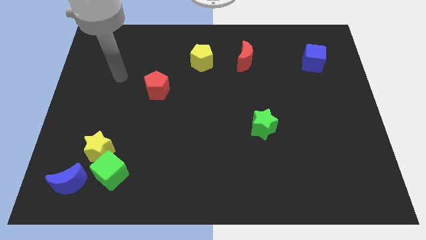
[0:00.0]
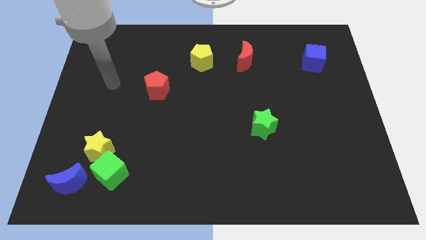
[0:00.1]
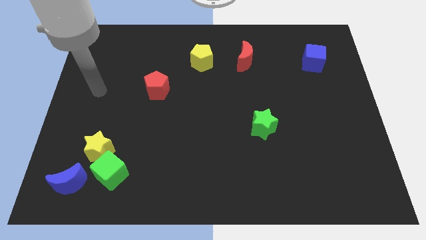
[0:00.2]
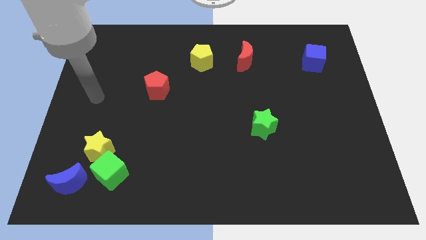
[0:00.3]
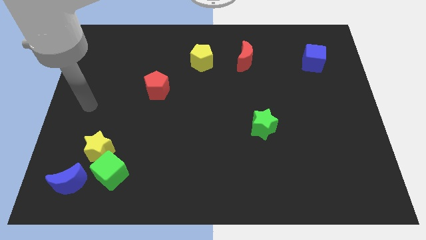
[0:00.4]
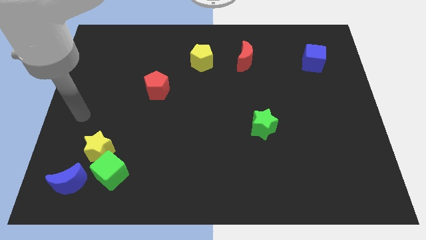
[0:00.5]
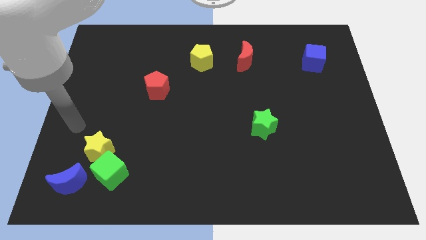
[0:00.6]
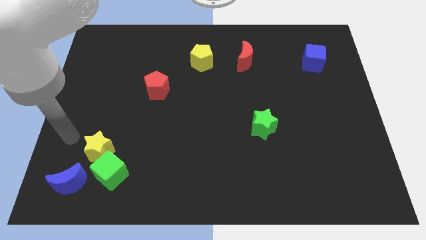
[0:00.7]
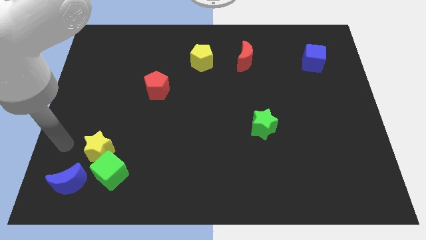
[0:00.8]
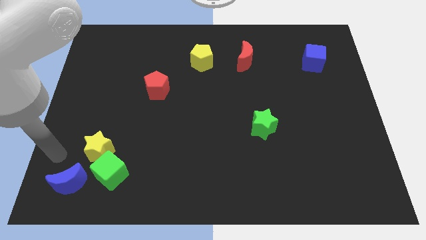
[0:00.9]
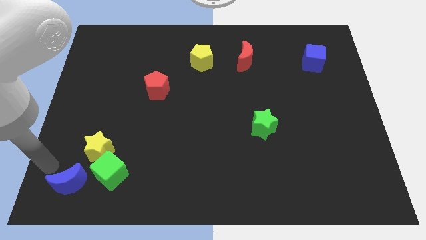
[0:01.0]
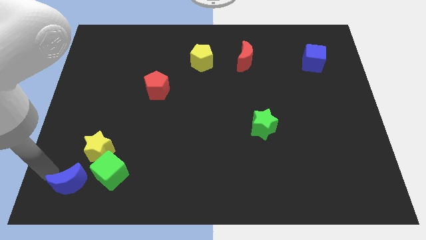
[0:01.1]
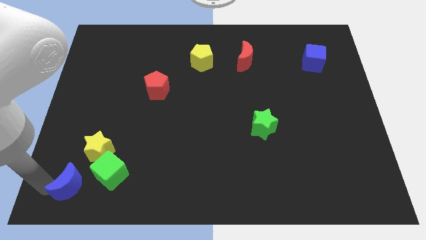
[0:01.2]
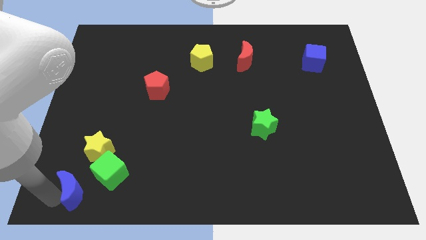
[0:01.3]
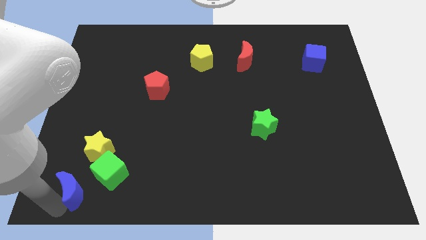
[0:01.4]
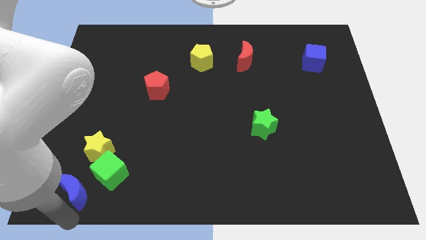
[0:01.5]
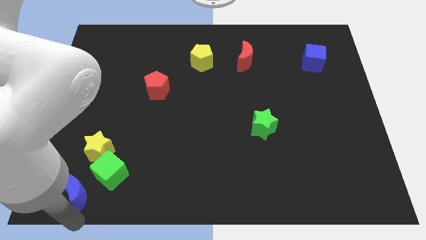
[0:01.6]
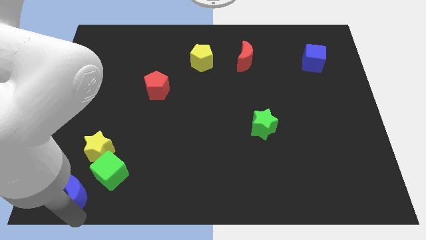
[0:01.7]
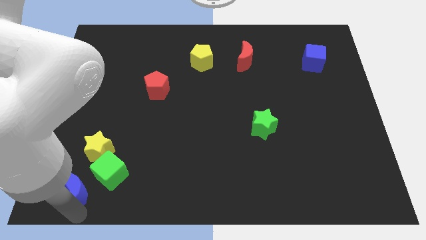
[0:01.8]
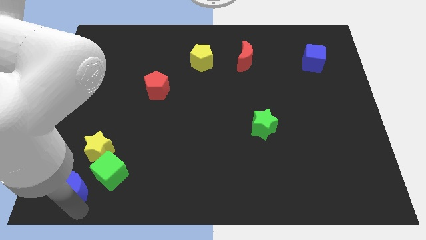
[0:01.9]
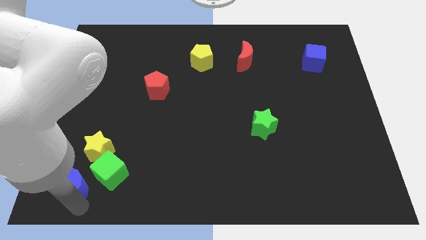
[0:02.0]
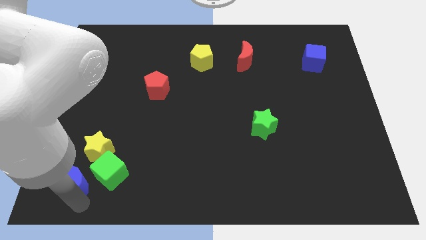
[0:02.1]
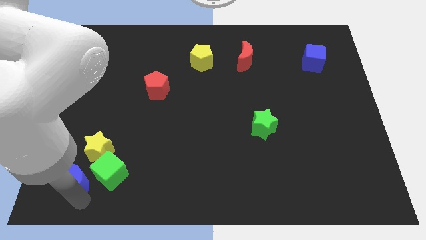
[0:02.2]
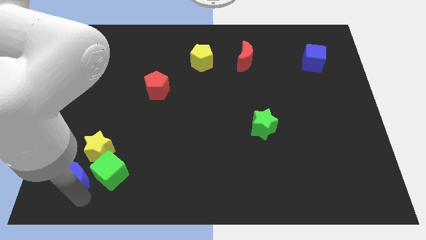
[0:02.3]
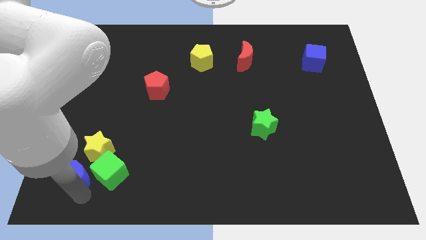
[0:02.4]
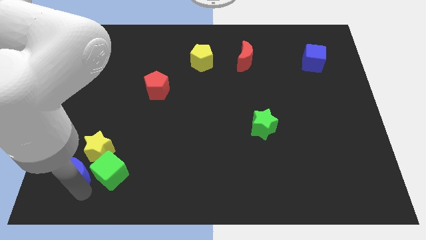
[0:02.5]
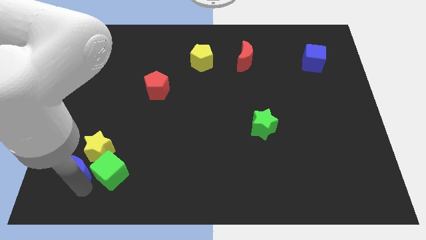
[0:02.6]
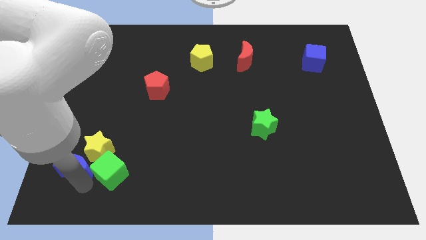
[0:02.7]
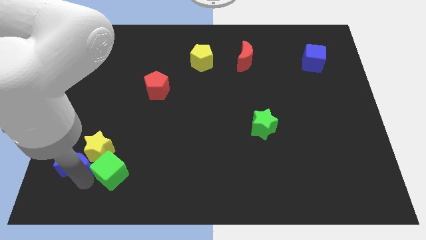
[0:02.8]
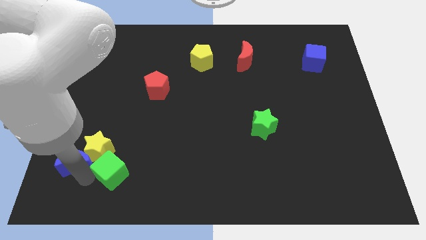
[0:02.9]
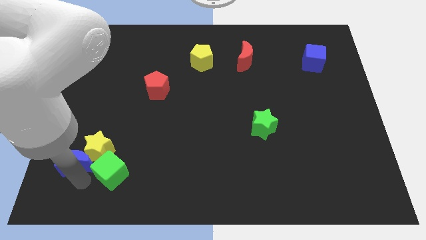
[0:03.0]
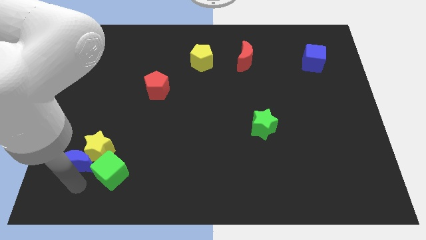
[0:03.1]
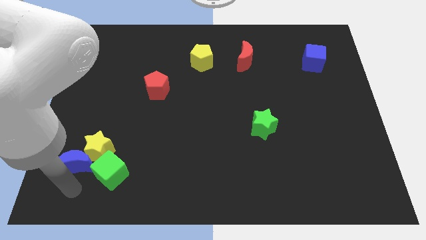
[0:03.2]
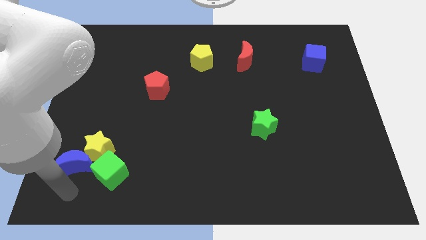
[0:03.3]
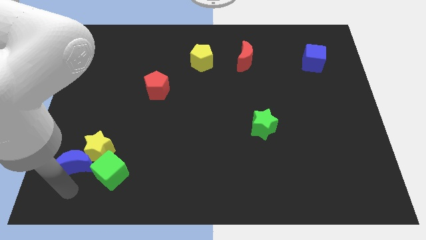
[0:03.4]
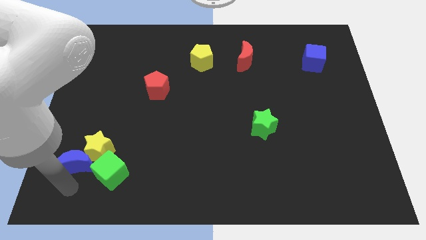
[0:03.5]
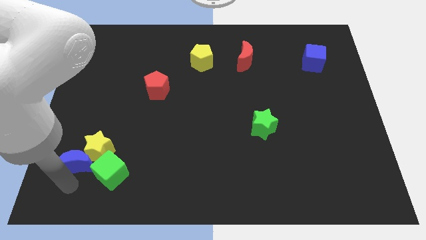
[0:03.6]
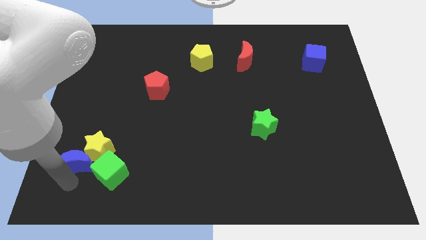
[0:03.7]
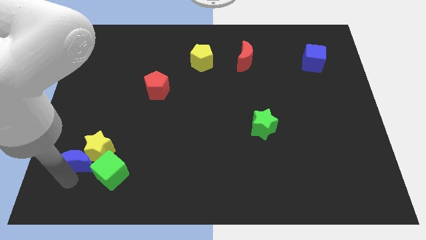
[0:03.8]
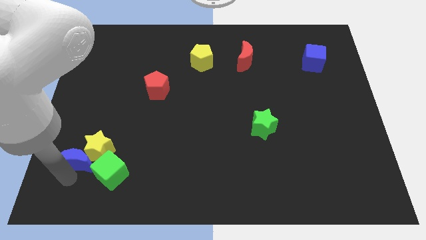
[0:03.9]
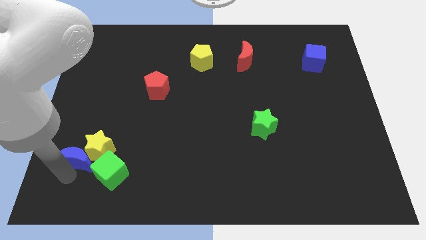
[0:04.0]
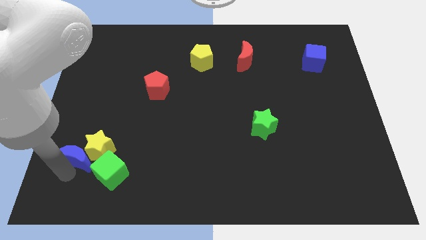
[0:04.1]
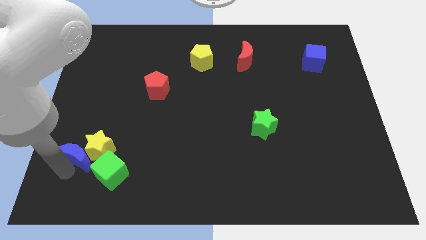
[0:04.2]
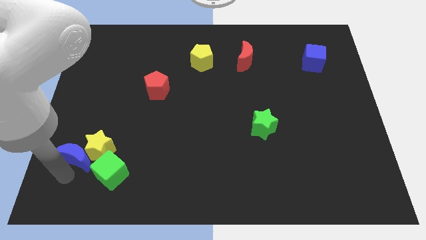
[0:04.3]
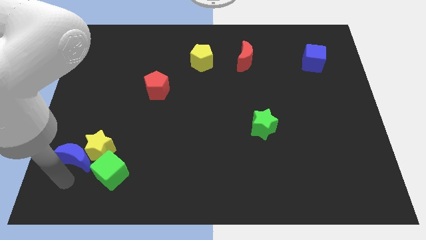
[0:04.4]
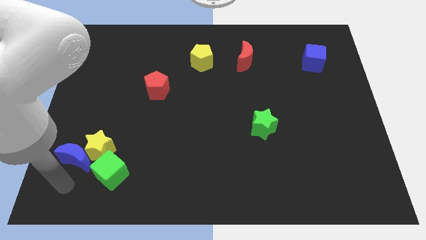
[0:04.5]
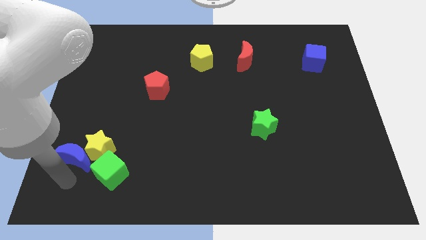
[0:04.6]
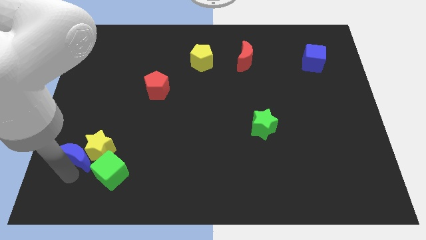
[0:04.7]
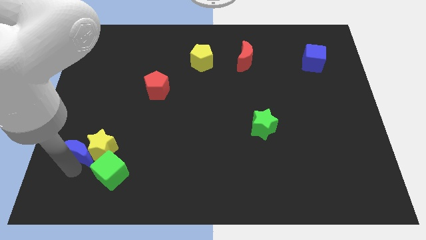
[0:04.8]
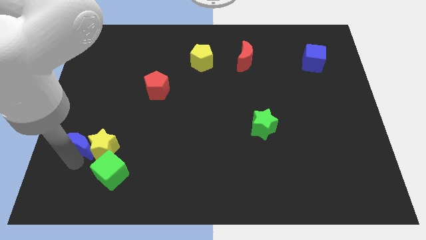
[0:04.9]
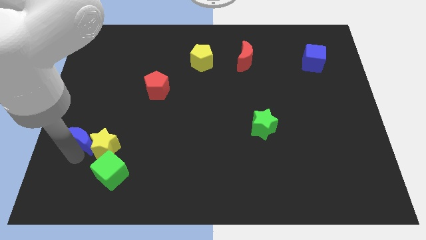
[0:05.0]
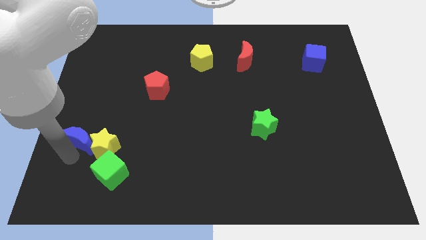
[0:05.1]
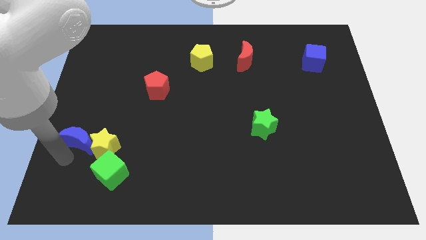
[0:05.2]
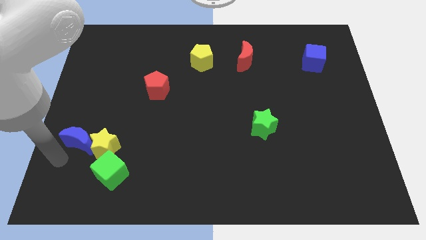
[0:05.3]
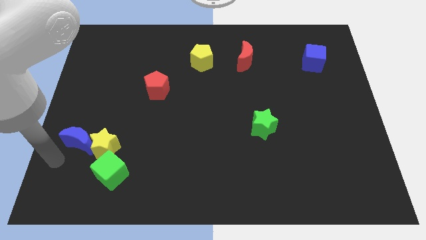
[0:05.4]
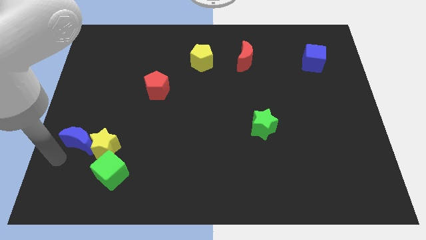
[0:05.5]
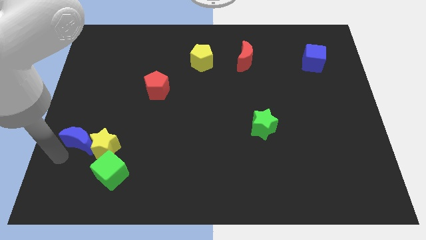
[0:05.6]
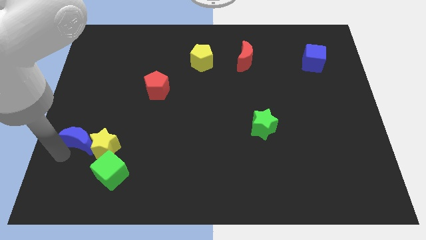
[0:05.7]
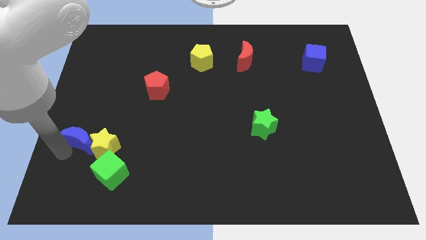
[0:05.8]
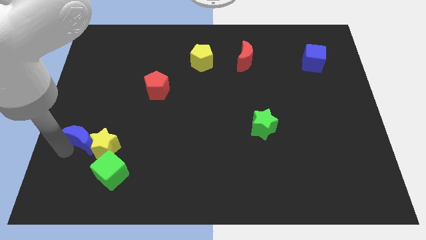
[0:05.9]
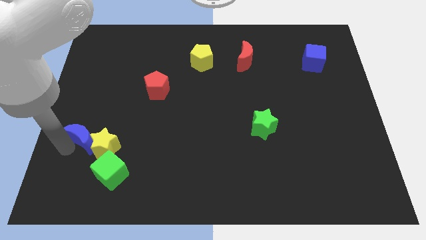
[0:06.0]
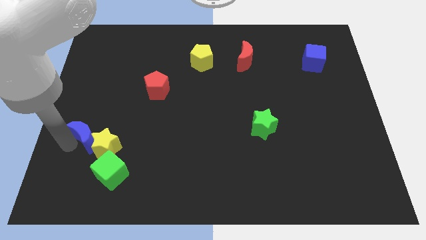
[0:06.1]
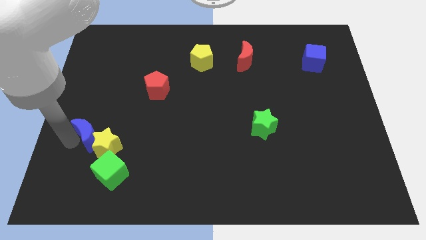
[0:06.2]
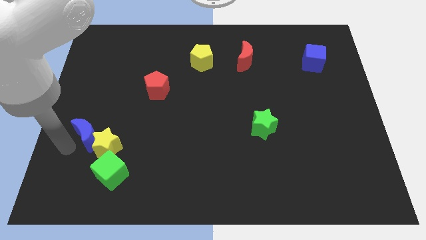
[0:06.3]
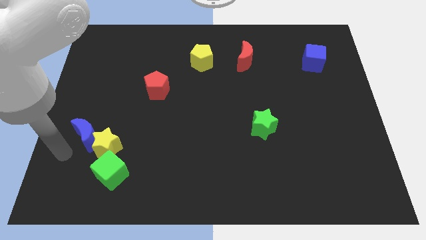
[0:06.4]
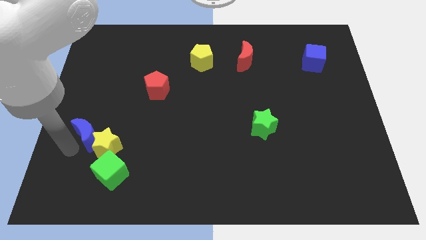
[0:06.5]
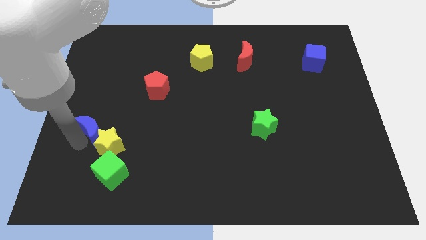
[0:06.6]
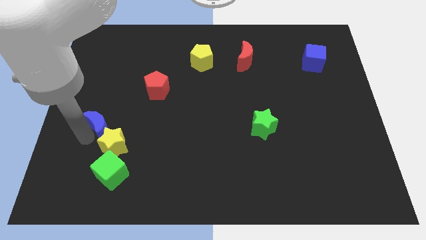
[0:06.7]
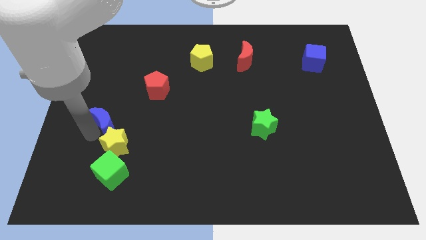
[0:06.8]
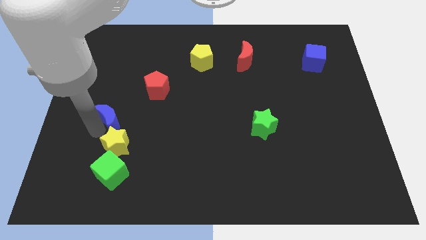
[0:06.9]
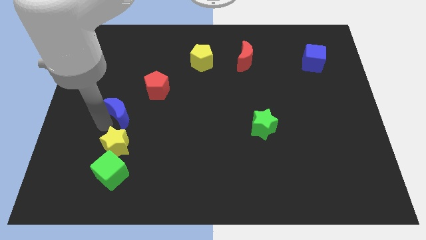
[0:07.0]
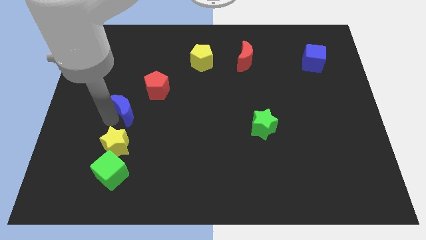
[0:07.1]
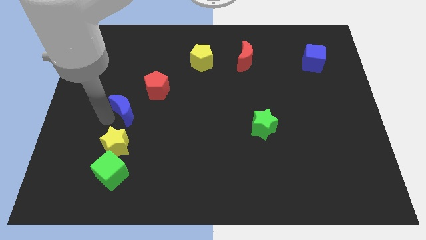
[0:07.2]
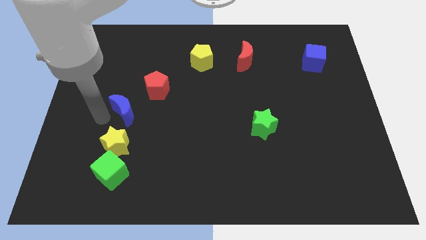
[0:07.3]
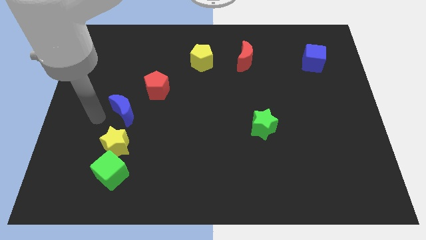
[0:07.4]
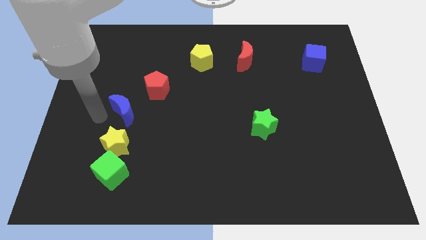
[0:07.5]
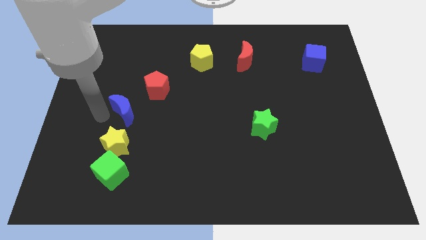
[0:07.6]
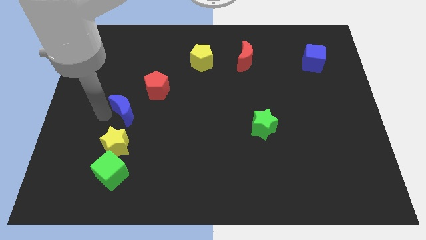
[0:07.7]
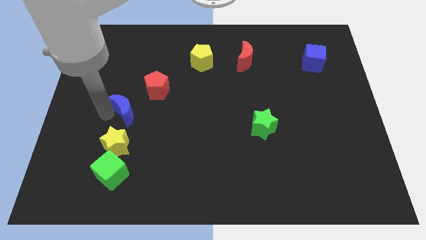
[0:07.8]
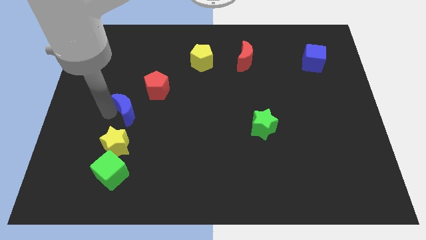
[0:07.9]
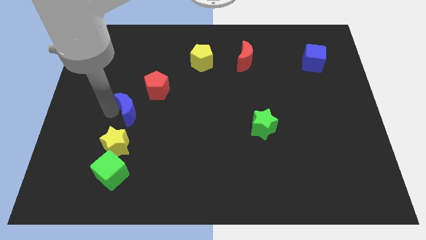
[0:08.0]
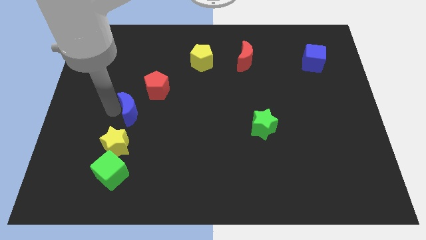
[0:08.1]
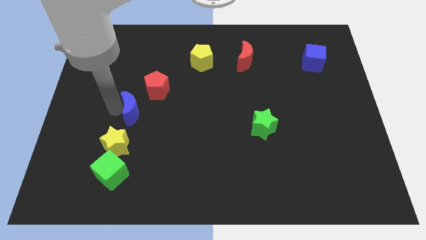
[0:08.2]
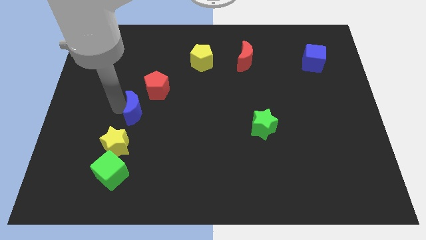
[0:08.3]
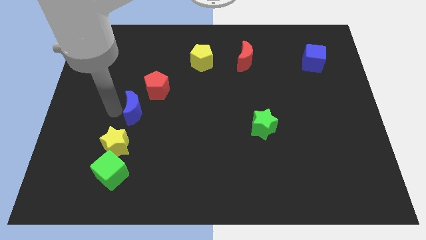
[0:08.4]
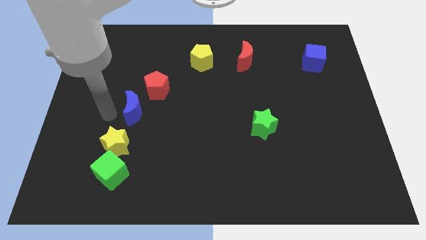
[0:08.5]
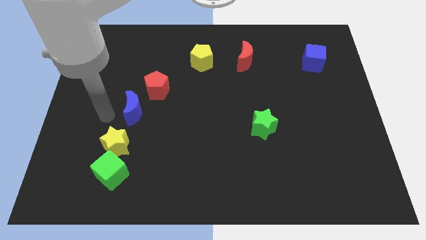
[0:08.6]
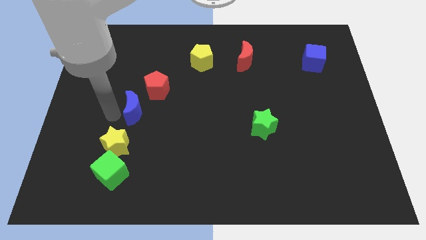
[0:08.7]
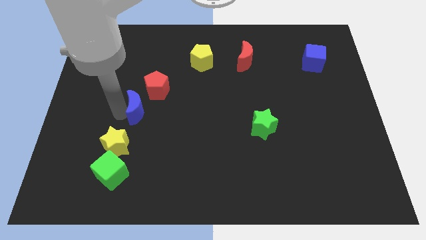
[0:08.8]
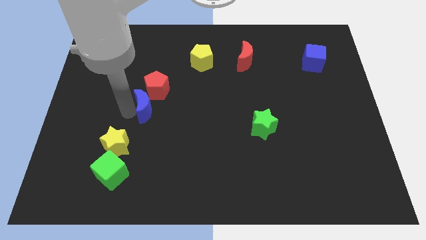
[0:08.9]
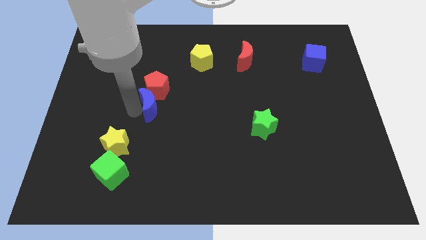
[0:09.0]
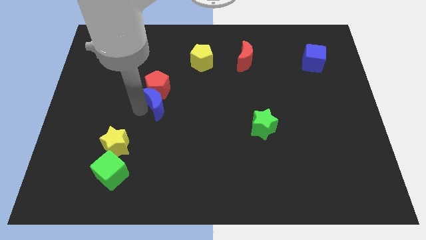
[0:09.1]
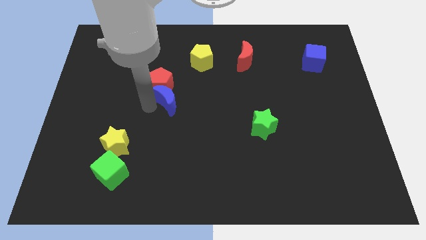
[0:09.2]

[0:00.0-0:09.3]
push the blue moon to the middle of the board
